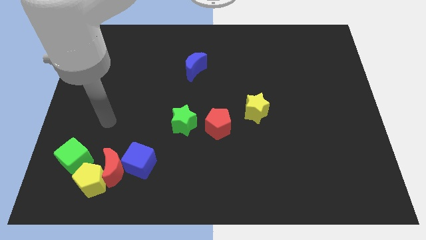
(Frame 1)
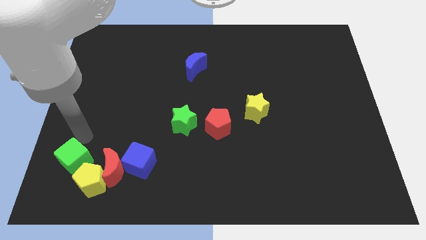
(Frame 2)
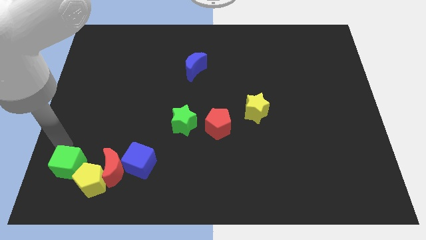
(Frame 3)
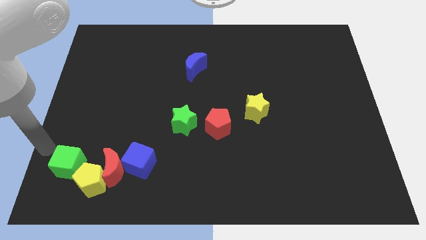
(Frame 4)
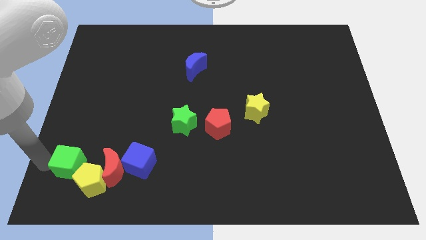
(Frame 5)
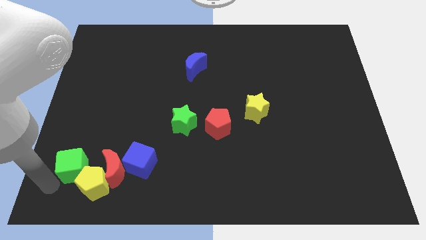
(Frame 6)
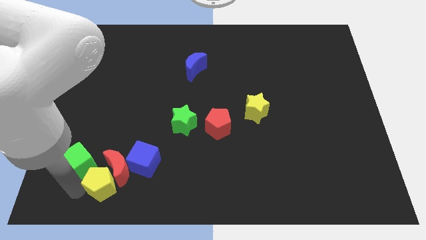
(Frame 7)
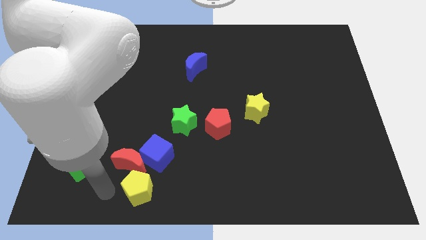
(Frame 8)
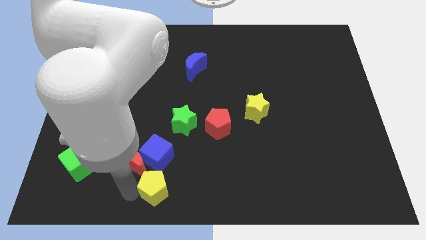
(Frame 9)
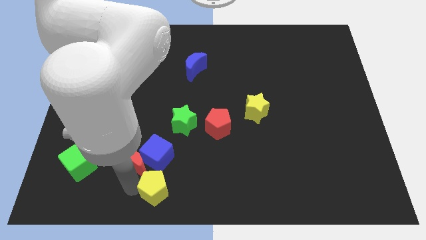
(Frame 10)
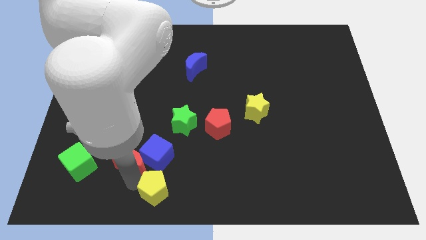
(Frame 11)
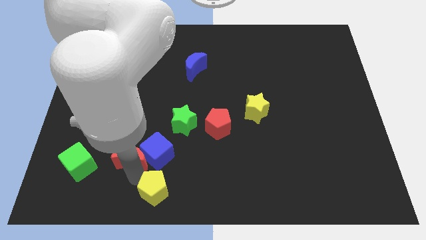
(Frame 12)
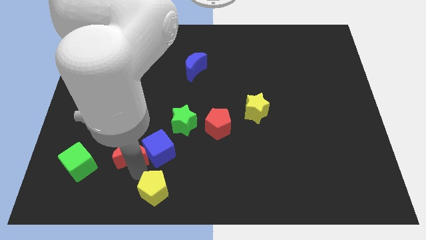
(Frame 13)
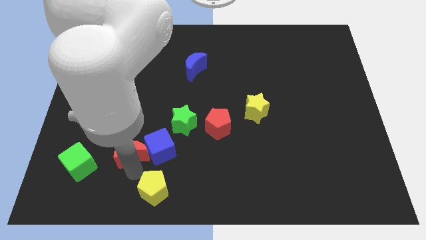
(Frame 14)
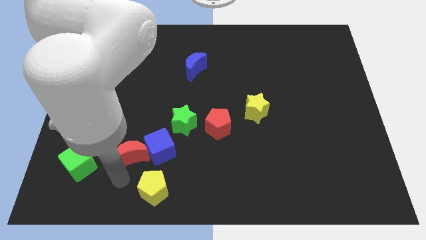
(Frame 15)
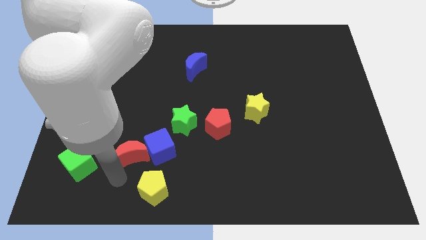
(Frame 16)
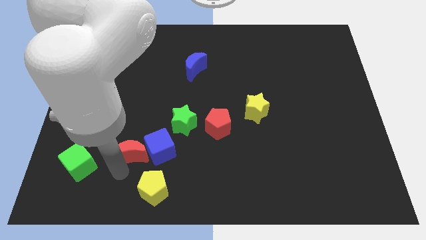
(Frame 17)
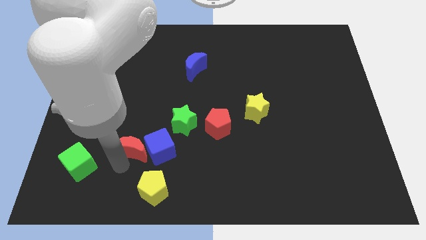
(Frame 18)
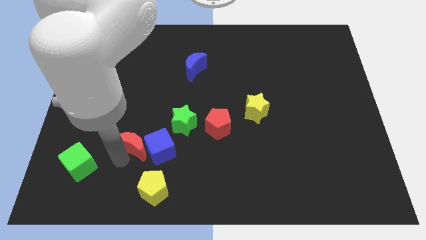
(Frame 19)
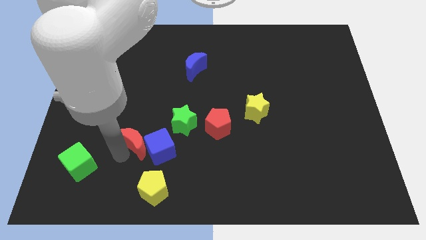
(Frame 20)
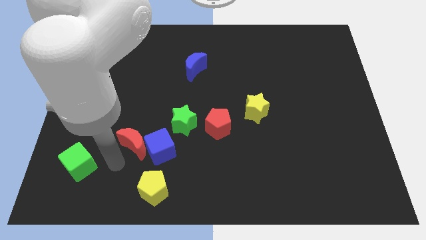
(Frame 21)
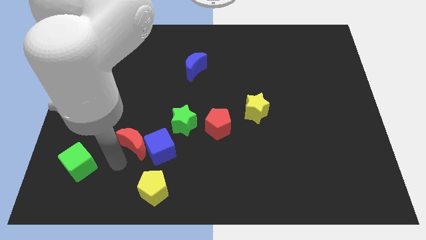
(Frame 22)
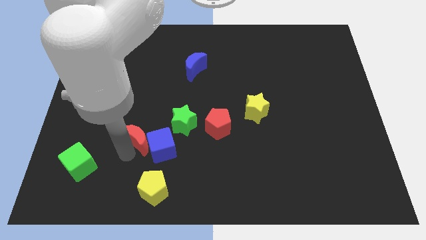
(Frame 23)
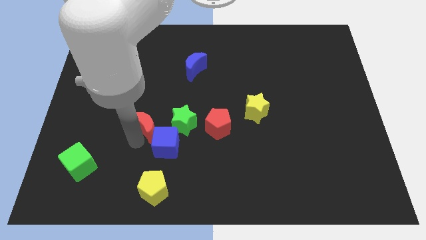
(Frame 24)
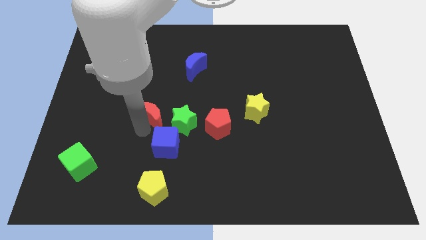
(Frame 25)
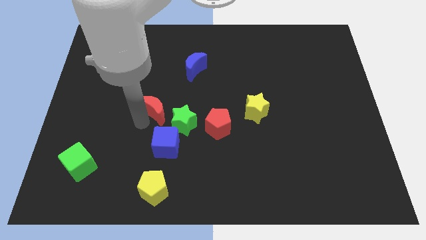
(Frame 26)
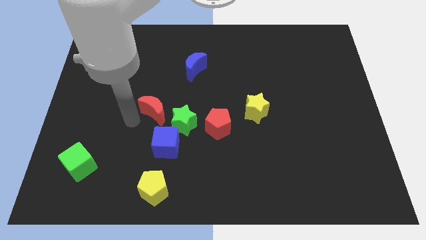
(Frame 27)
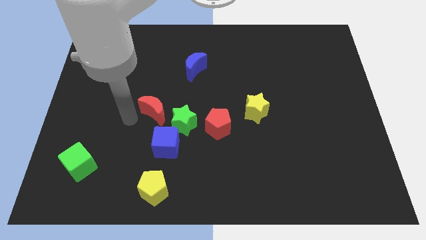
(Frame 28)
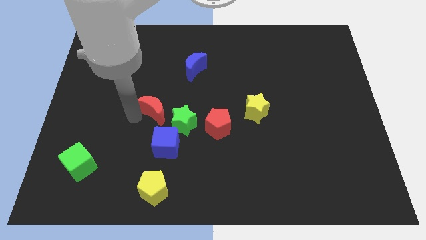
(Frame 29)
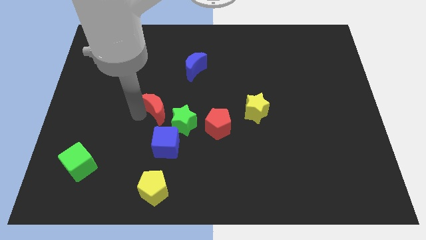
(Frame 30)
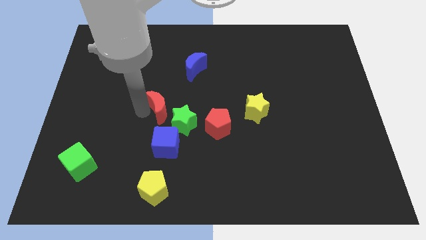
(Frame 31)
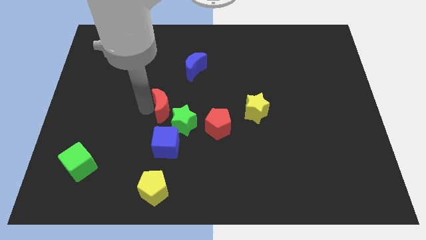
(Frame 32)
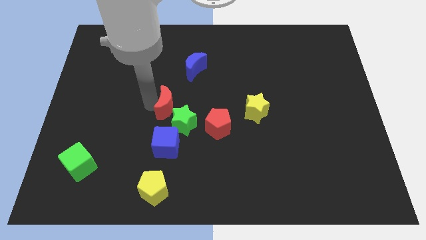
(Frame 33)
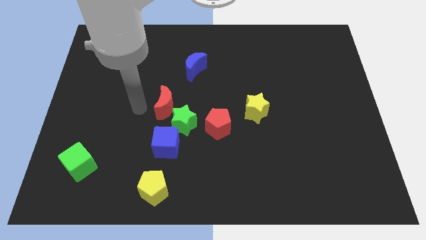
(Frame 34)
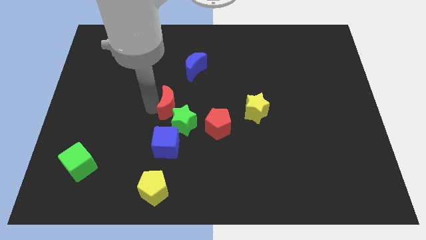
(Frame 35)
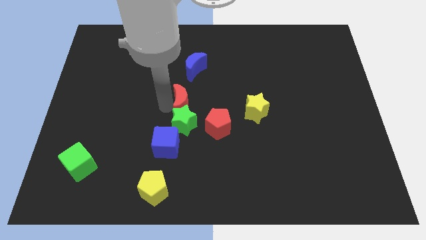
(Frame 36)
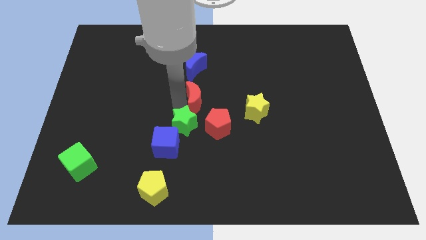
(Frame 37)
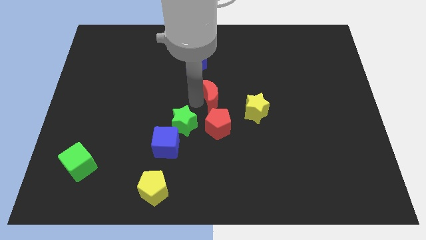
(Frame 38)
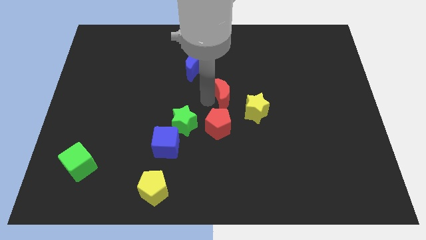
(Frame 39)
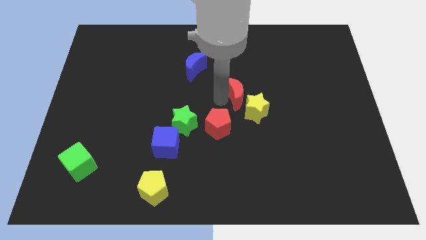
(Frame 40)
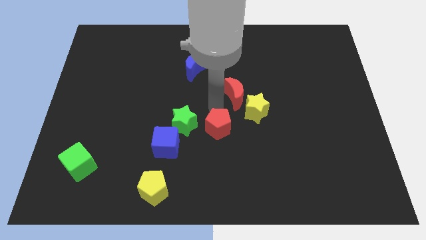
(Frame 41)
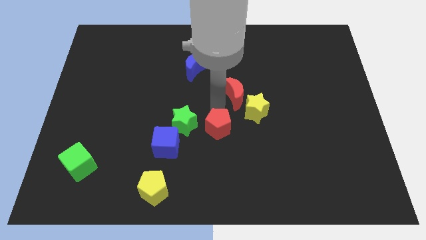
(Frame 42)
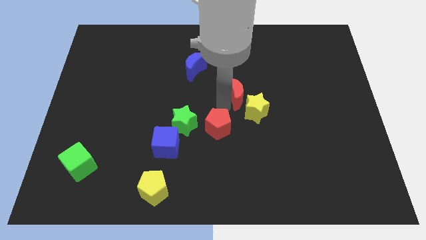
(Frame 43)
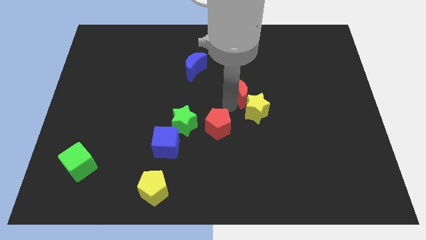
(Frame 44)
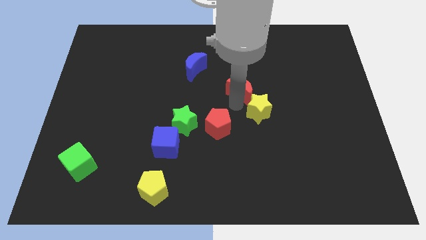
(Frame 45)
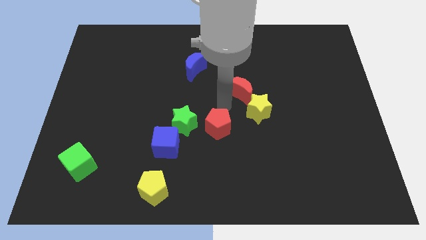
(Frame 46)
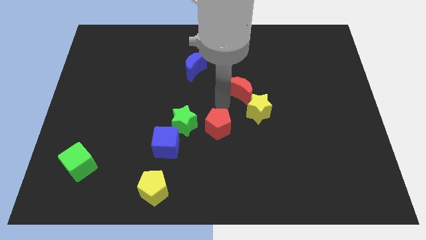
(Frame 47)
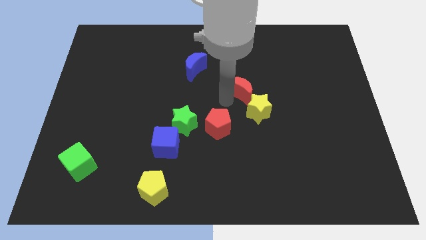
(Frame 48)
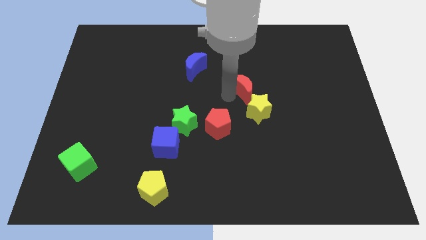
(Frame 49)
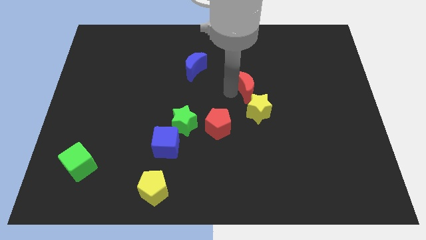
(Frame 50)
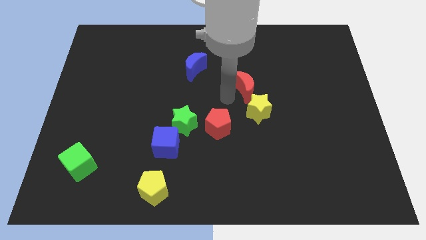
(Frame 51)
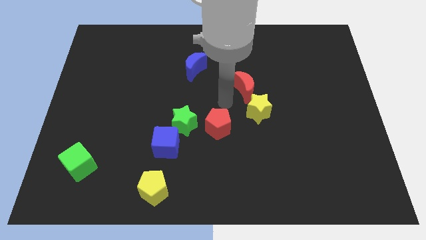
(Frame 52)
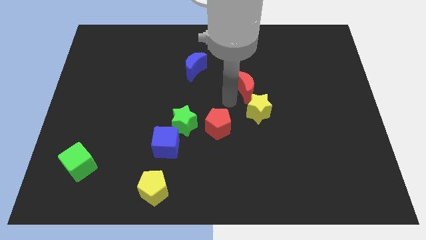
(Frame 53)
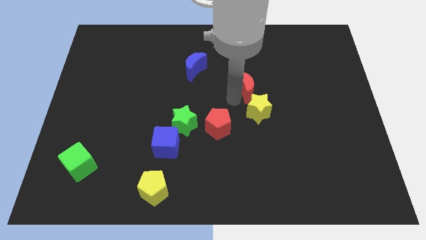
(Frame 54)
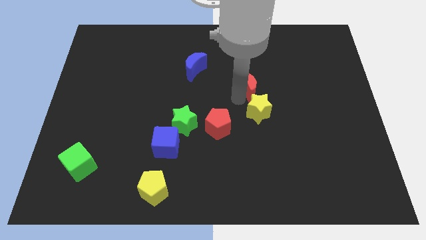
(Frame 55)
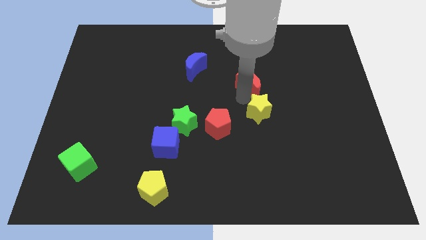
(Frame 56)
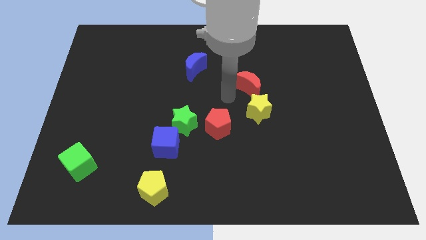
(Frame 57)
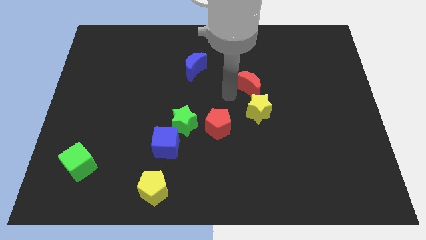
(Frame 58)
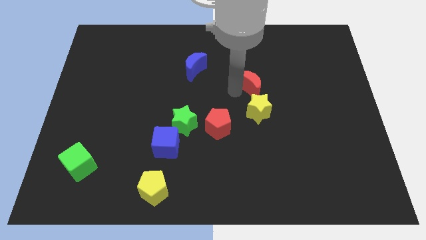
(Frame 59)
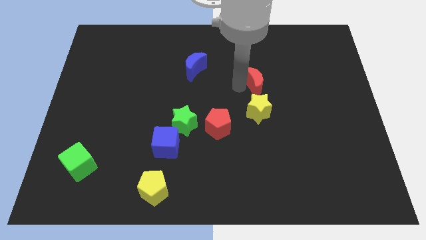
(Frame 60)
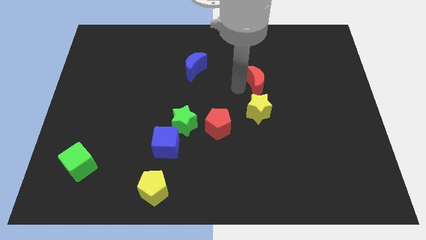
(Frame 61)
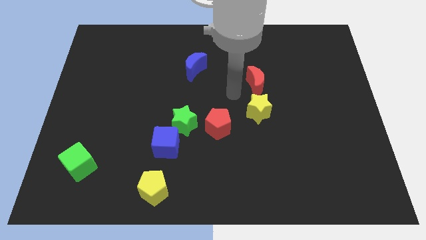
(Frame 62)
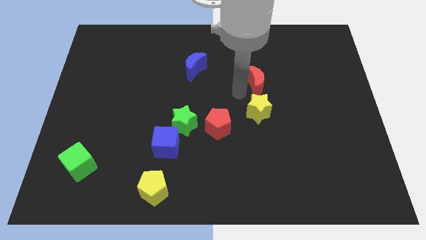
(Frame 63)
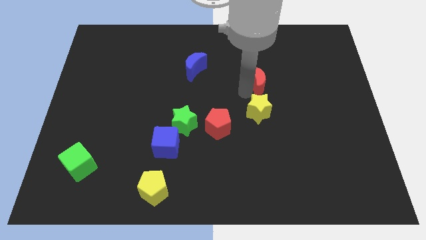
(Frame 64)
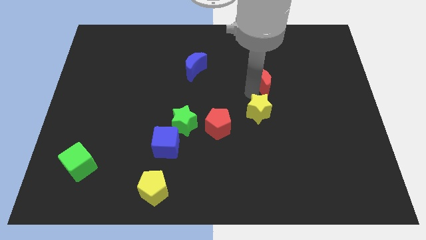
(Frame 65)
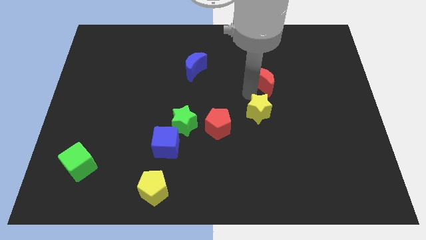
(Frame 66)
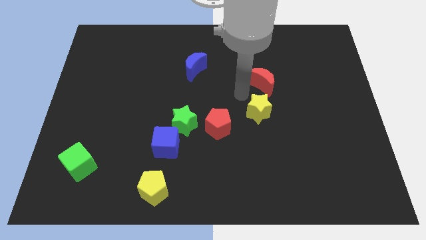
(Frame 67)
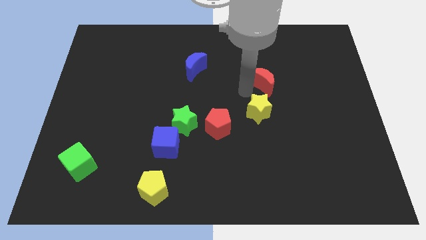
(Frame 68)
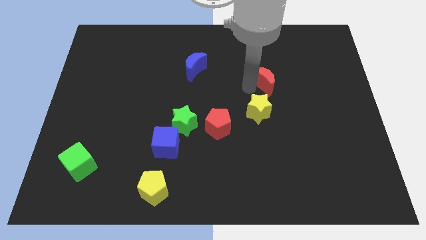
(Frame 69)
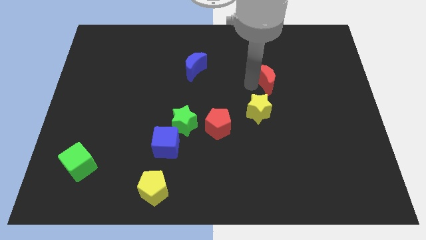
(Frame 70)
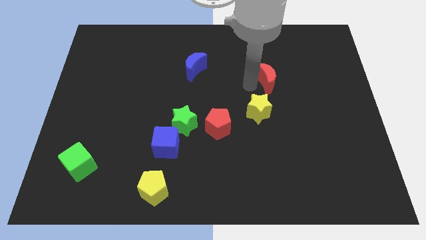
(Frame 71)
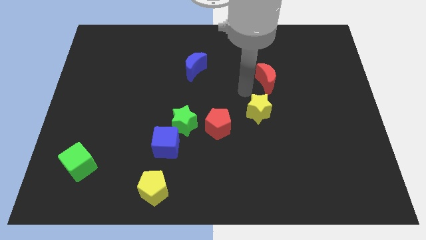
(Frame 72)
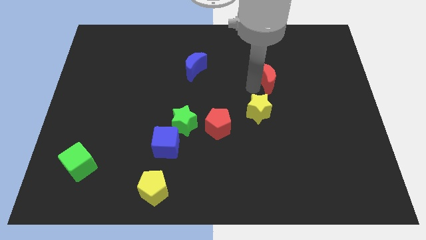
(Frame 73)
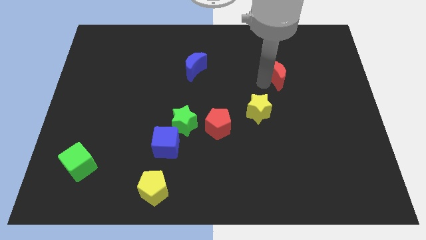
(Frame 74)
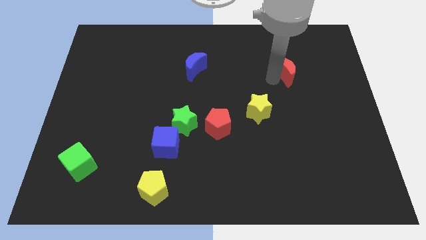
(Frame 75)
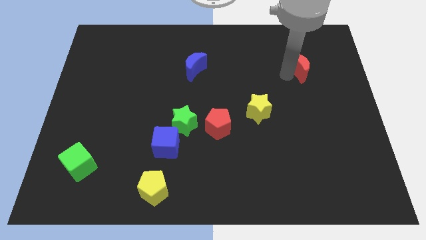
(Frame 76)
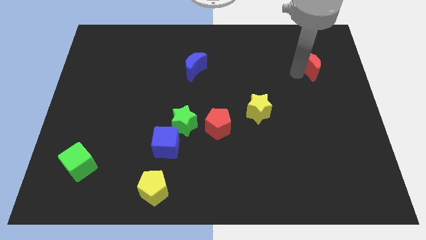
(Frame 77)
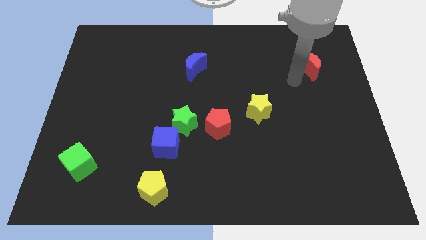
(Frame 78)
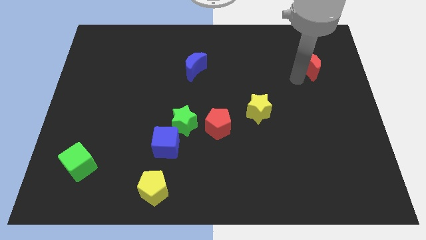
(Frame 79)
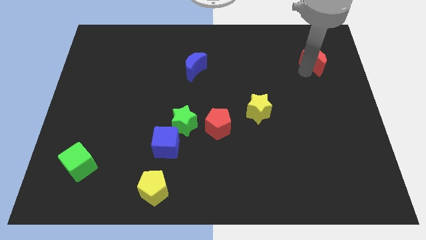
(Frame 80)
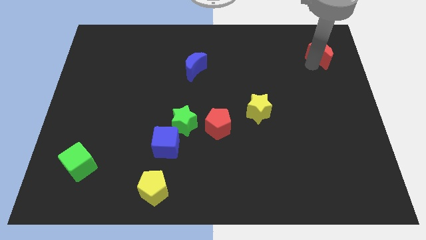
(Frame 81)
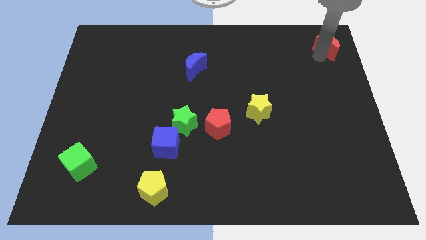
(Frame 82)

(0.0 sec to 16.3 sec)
push the red moon to the upper right corner
